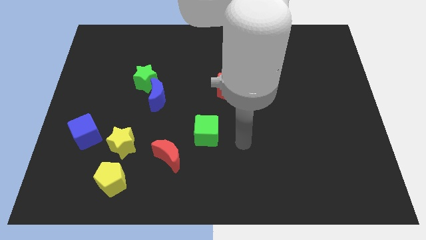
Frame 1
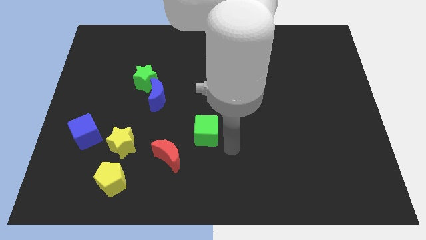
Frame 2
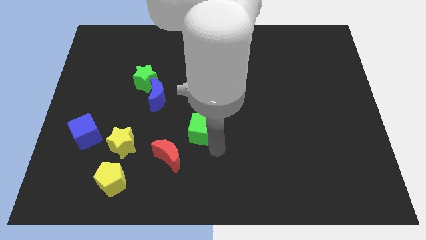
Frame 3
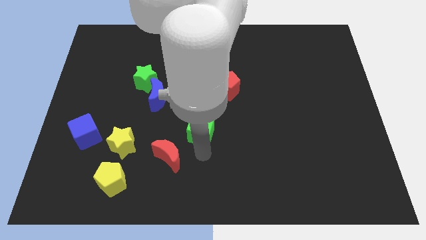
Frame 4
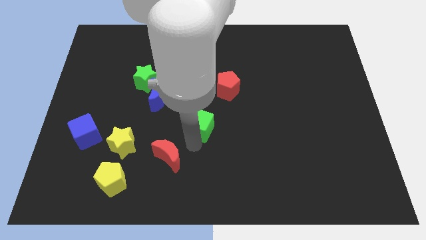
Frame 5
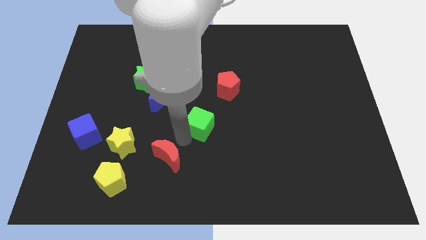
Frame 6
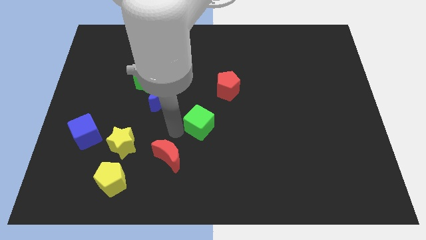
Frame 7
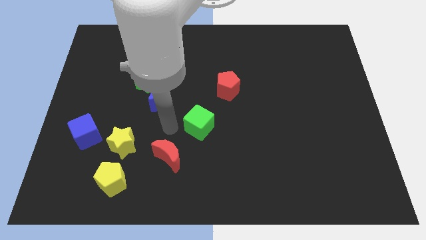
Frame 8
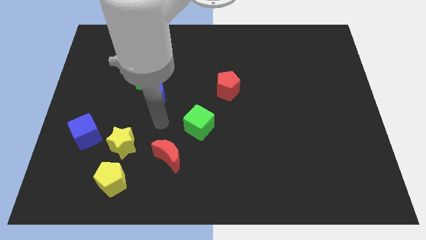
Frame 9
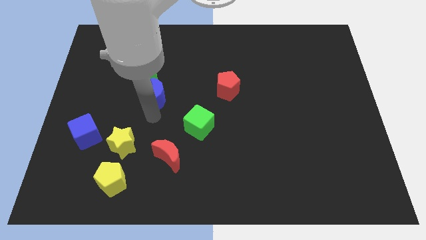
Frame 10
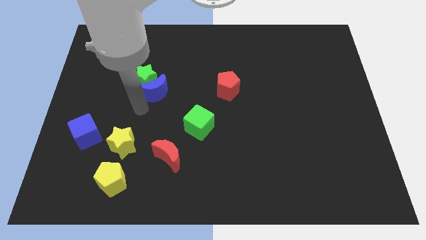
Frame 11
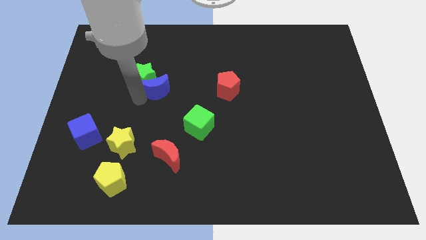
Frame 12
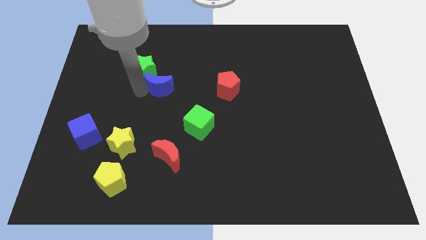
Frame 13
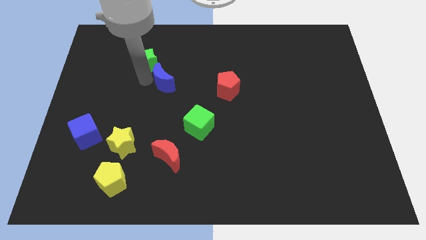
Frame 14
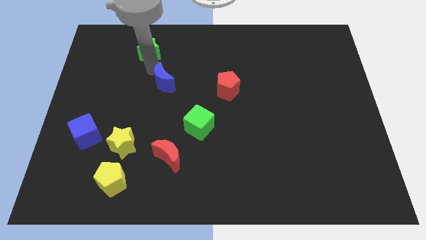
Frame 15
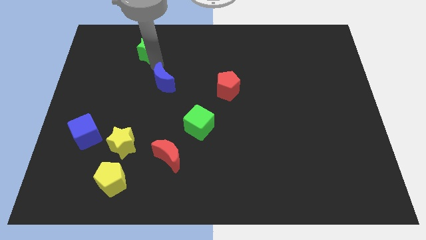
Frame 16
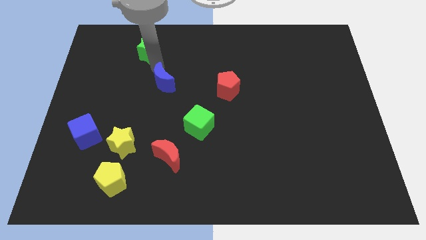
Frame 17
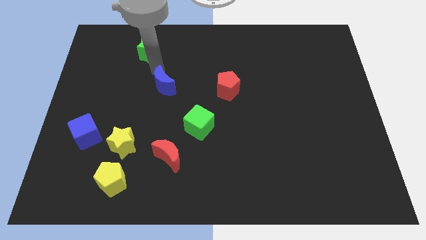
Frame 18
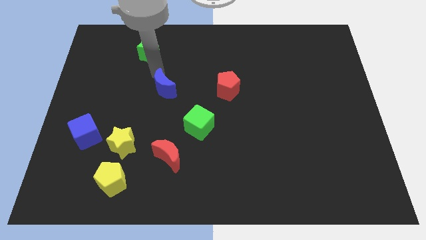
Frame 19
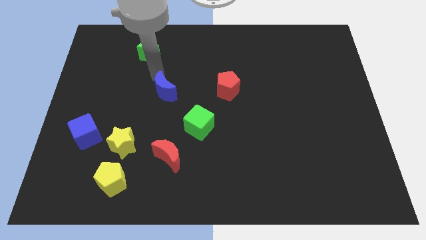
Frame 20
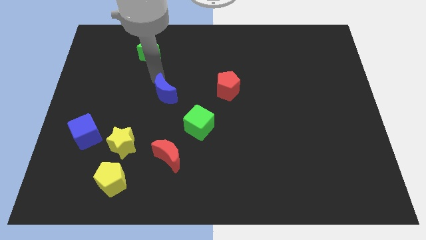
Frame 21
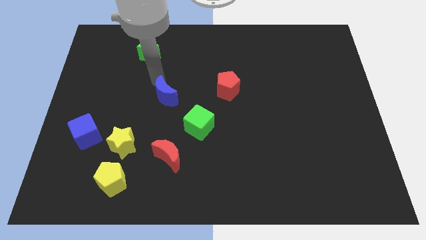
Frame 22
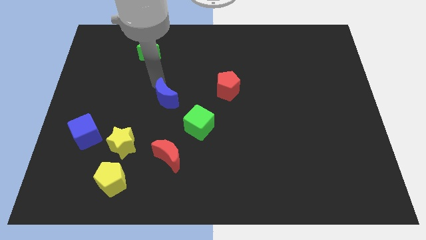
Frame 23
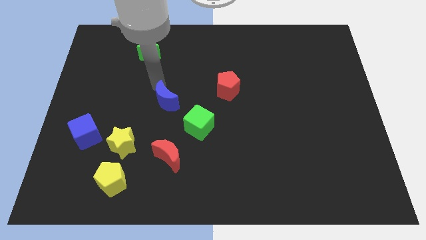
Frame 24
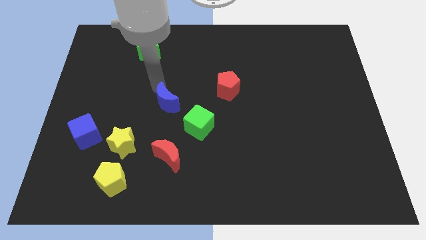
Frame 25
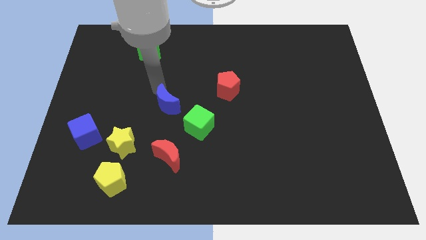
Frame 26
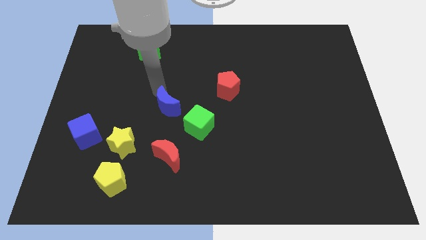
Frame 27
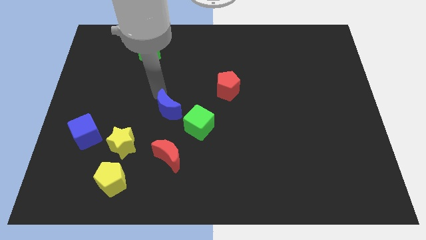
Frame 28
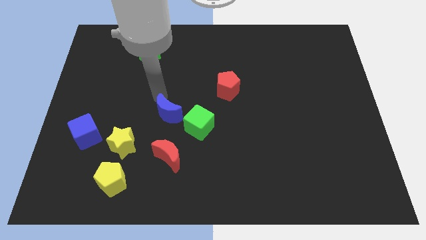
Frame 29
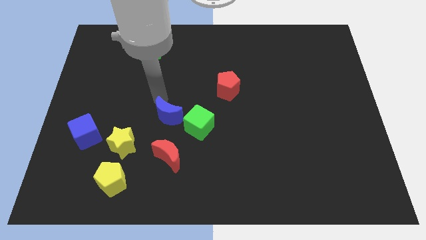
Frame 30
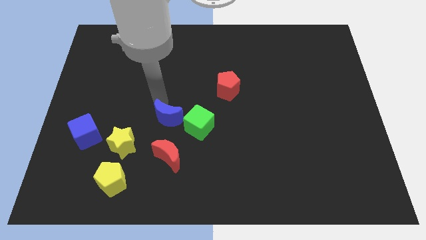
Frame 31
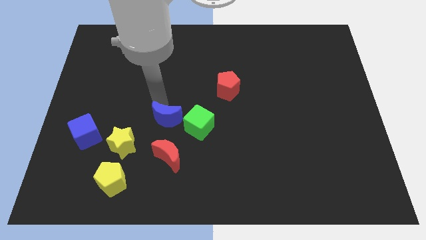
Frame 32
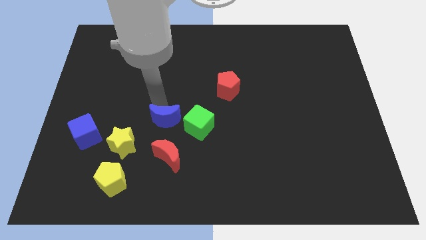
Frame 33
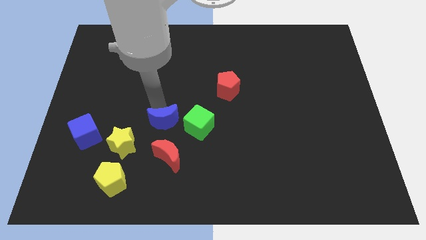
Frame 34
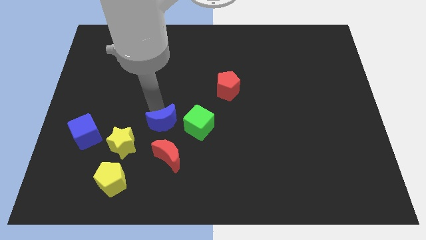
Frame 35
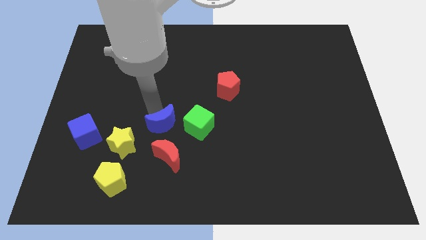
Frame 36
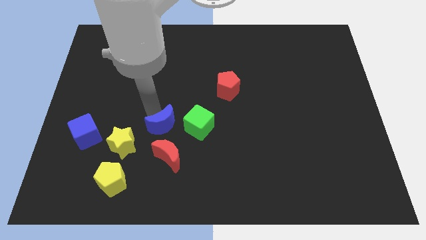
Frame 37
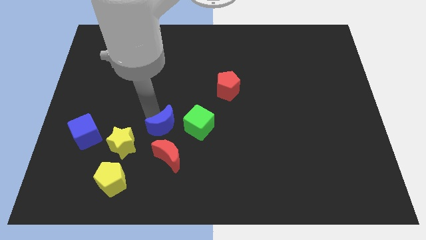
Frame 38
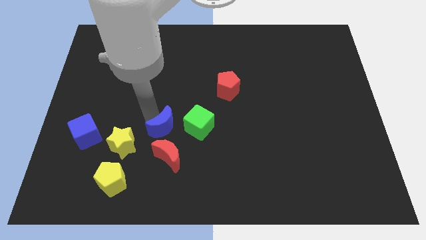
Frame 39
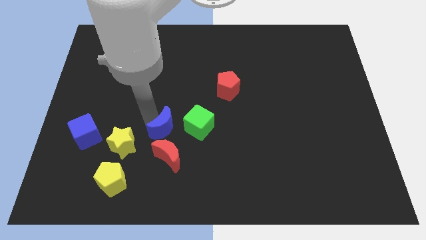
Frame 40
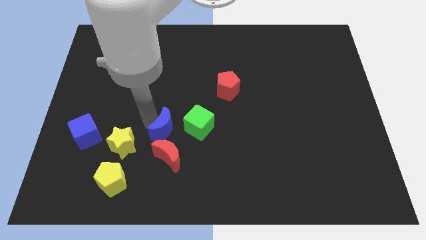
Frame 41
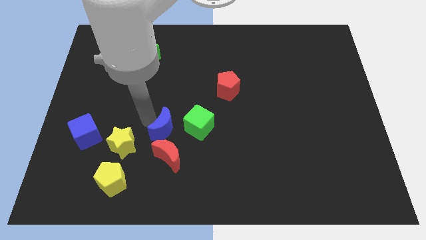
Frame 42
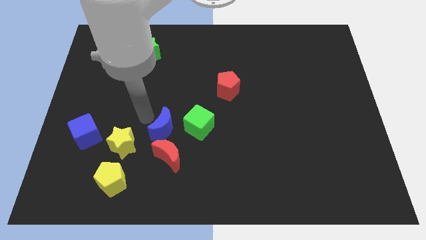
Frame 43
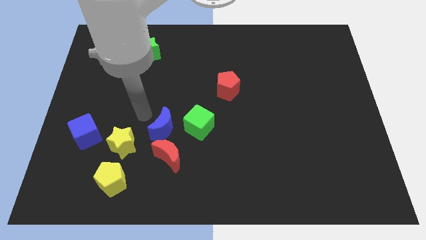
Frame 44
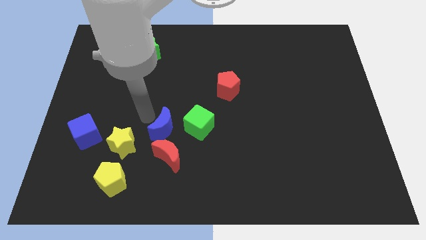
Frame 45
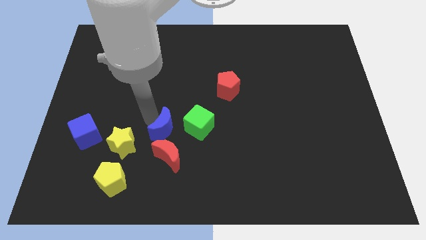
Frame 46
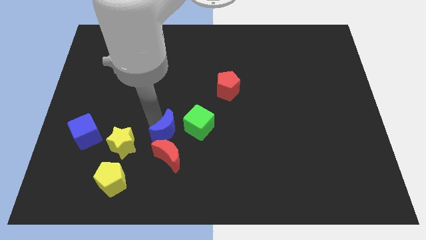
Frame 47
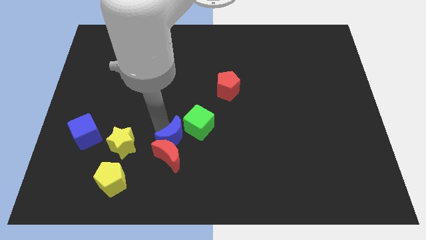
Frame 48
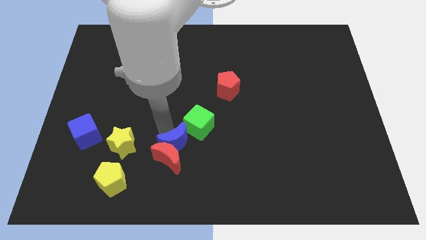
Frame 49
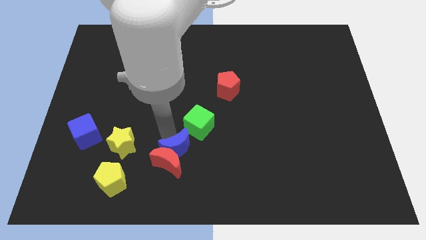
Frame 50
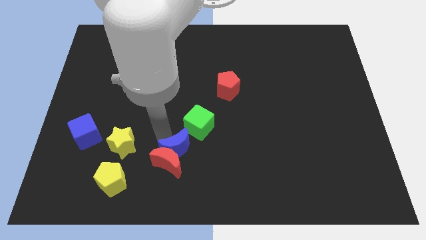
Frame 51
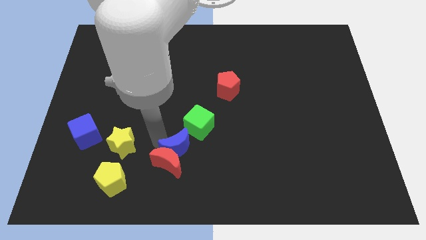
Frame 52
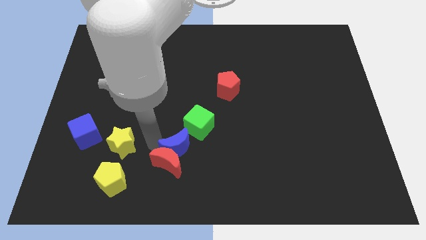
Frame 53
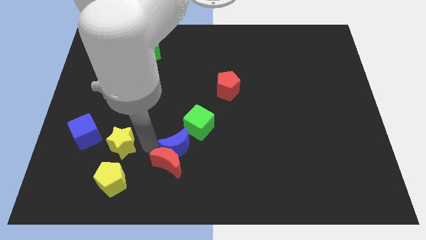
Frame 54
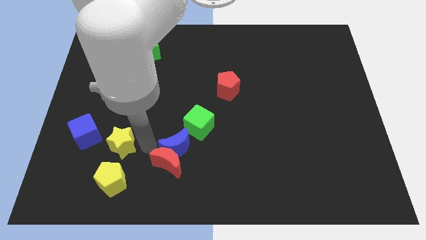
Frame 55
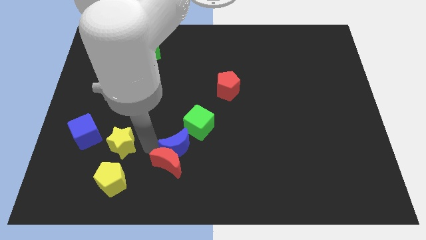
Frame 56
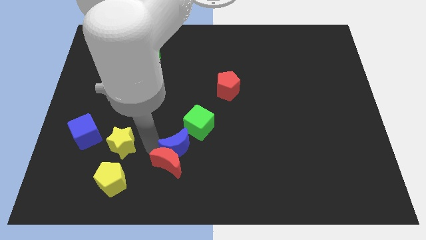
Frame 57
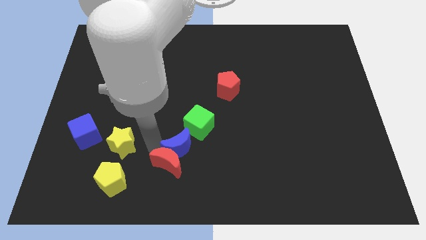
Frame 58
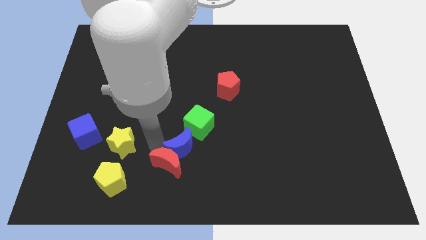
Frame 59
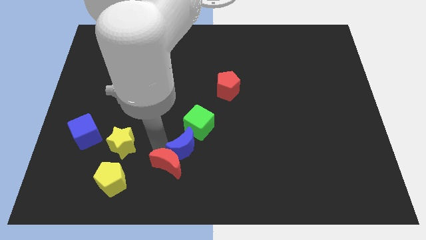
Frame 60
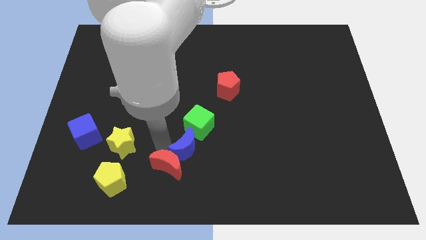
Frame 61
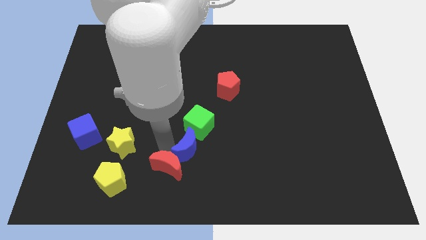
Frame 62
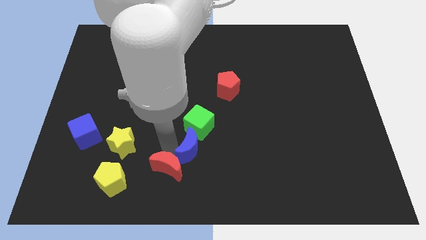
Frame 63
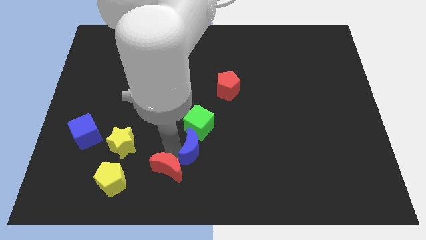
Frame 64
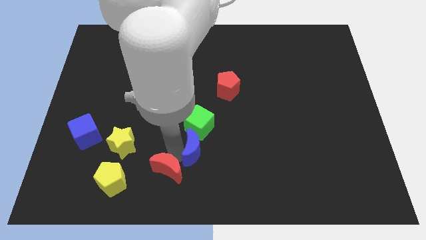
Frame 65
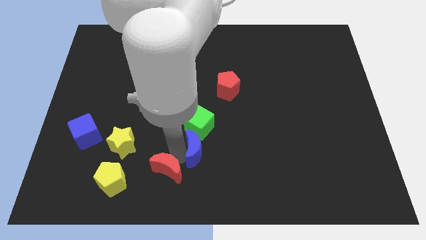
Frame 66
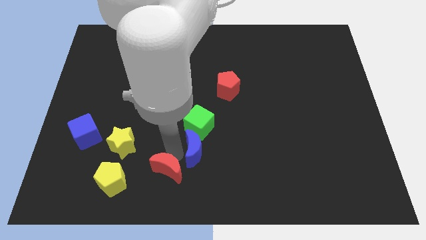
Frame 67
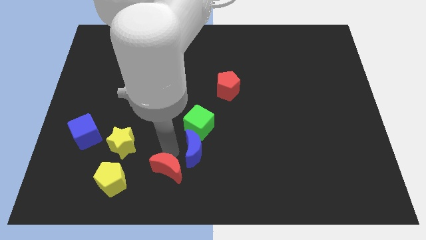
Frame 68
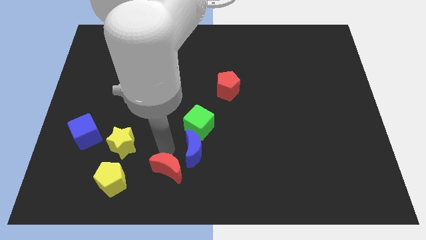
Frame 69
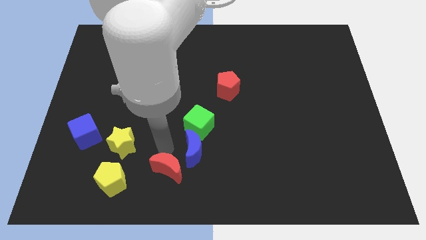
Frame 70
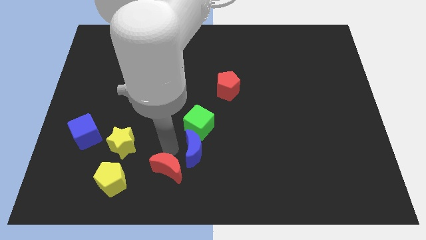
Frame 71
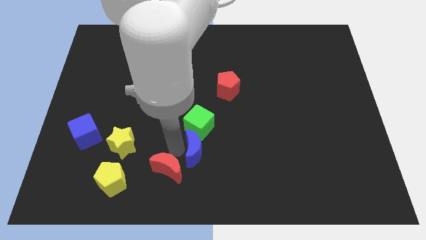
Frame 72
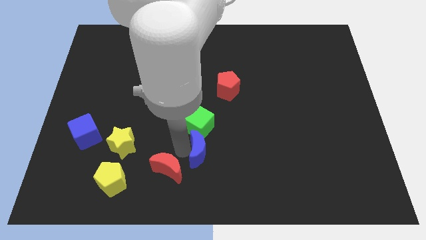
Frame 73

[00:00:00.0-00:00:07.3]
slide the blue moon to the bottom right of the green cube

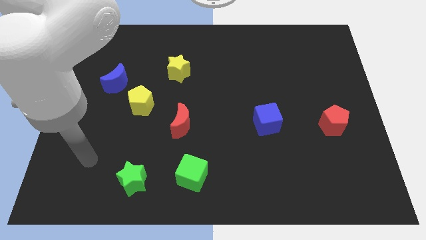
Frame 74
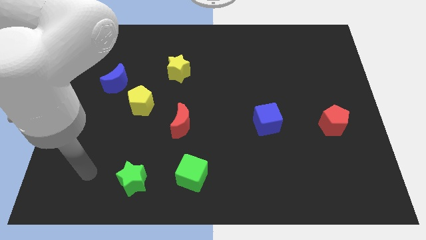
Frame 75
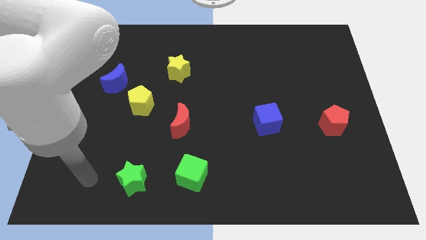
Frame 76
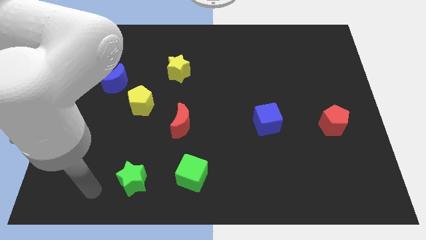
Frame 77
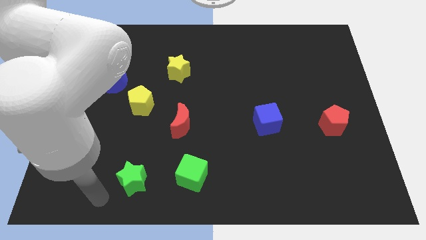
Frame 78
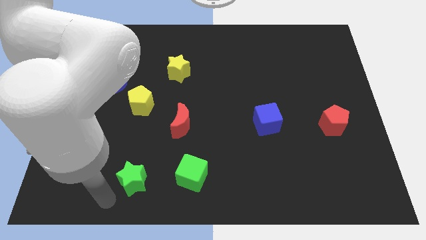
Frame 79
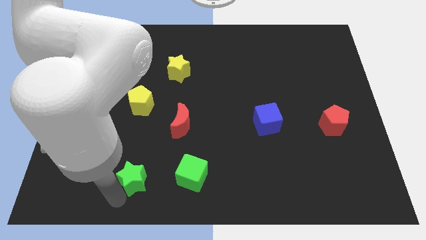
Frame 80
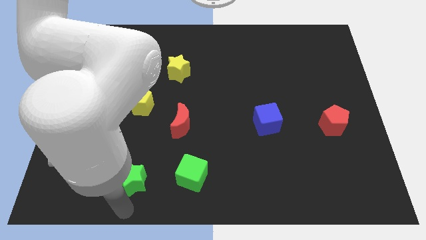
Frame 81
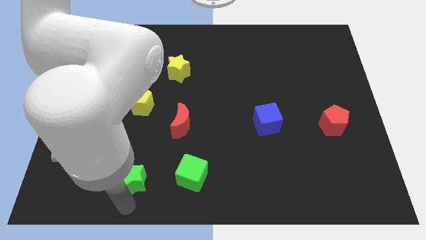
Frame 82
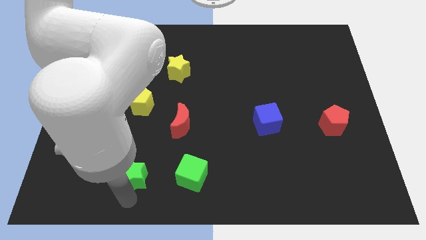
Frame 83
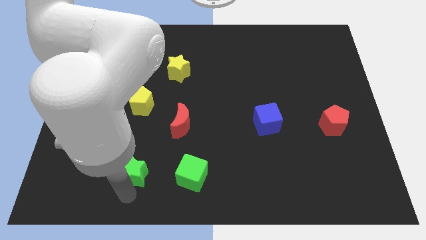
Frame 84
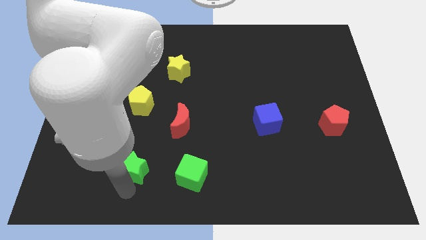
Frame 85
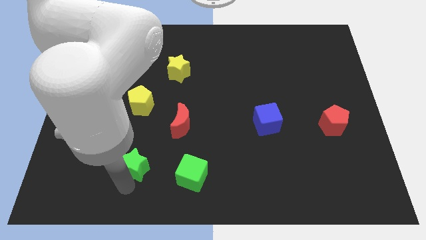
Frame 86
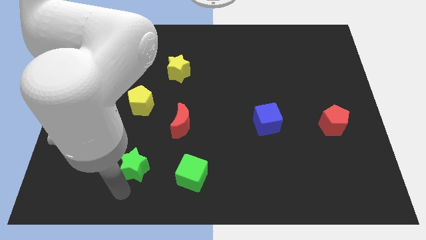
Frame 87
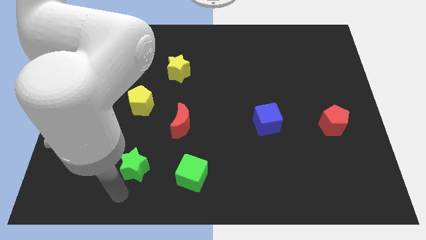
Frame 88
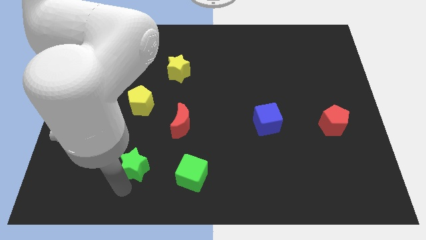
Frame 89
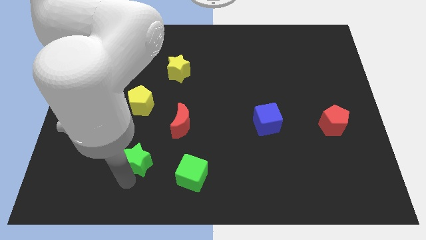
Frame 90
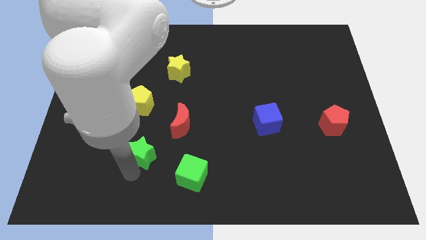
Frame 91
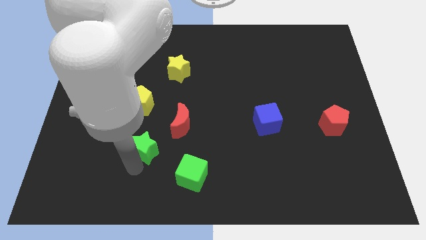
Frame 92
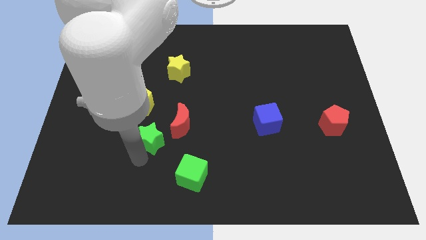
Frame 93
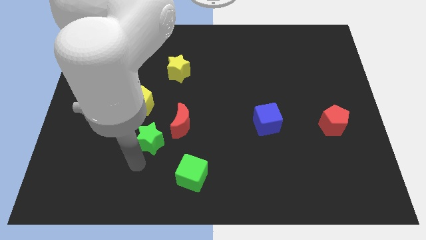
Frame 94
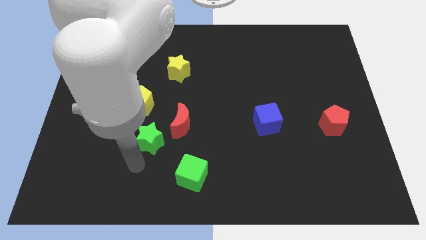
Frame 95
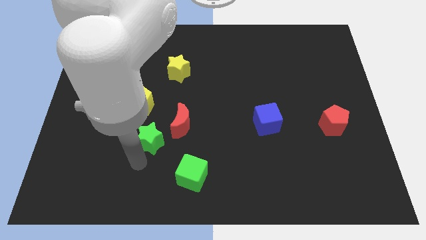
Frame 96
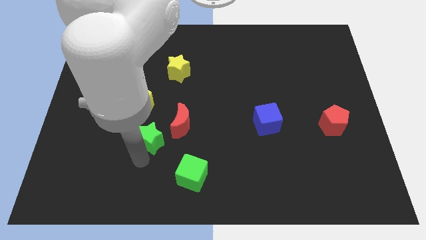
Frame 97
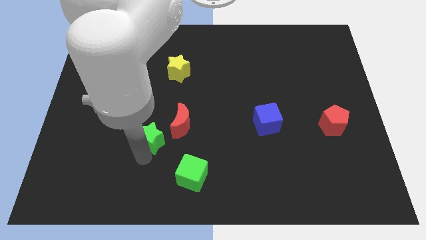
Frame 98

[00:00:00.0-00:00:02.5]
slide the green star to the bottom right side of the yellow pentagon
